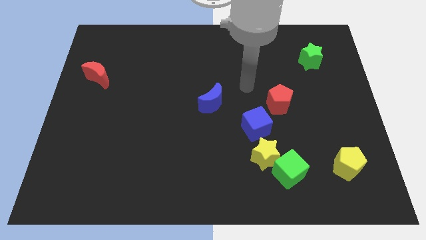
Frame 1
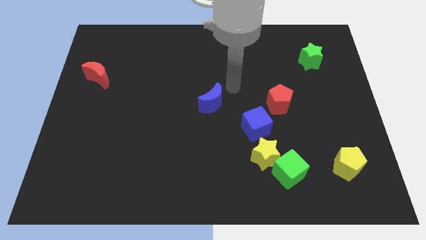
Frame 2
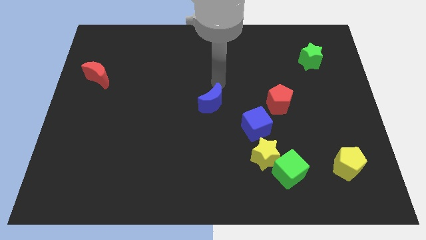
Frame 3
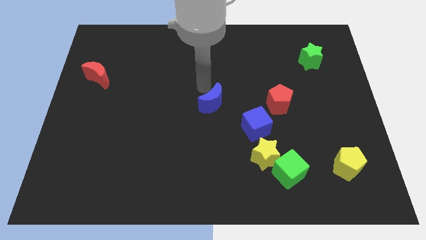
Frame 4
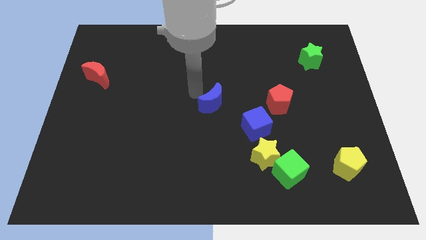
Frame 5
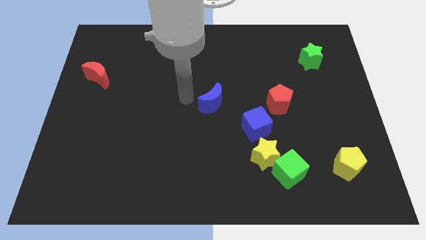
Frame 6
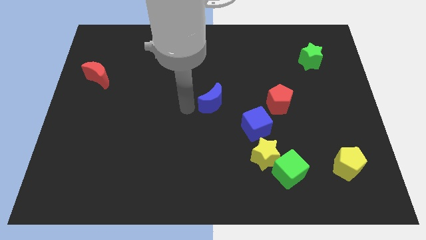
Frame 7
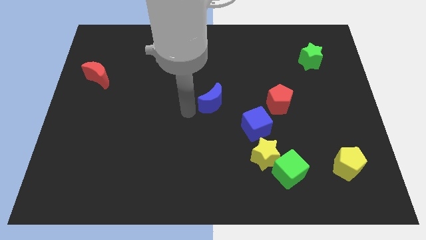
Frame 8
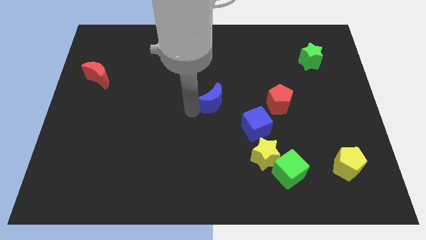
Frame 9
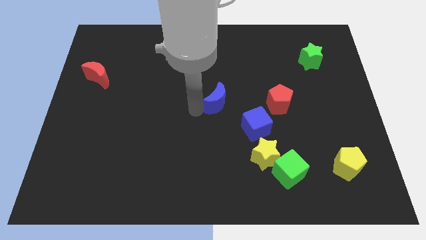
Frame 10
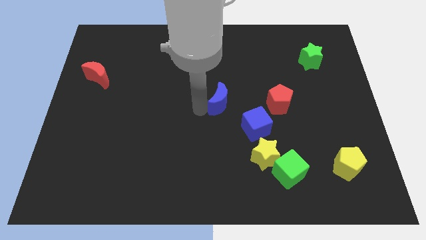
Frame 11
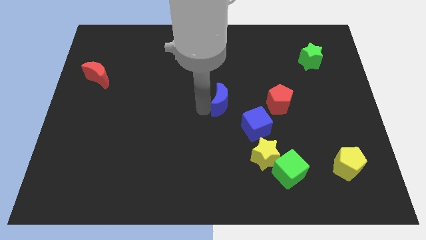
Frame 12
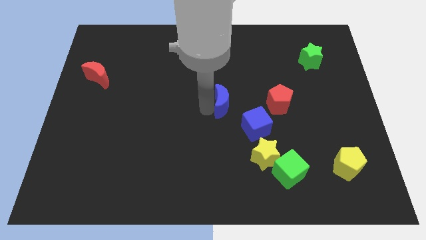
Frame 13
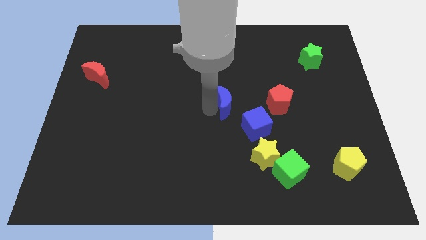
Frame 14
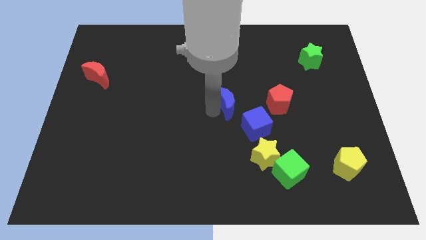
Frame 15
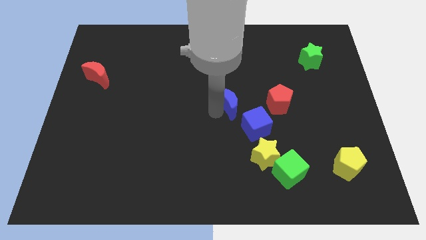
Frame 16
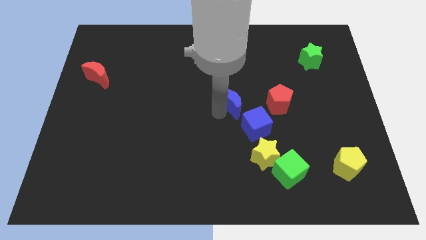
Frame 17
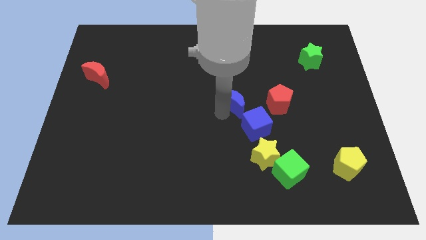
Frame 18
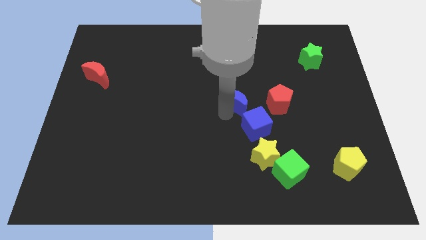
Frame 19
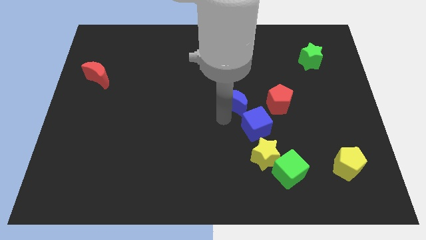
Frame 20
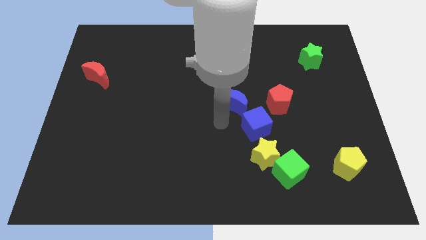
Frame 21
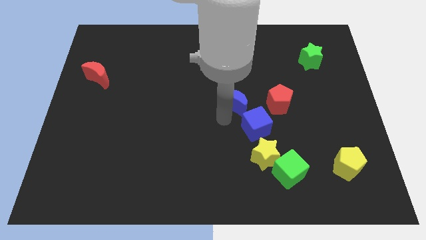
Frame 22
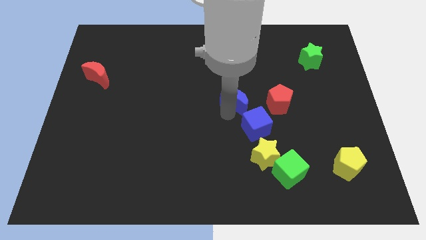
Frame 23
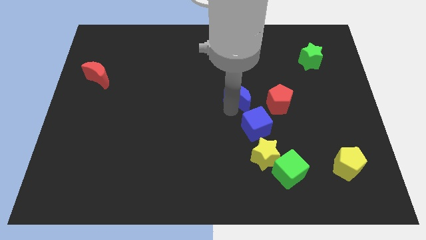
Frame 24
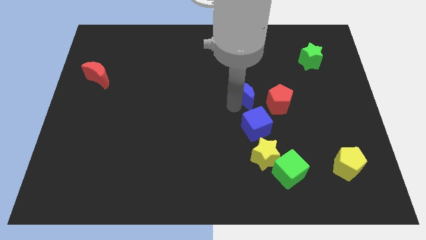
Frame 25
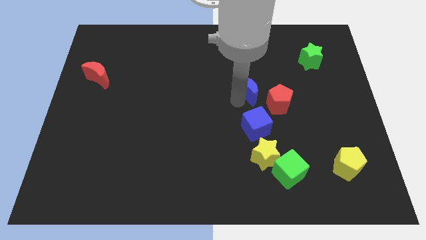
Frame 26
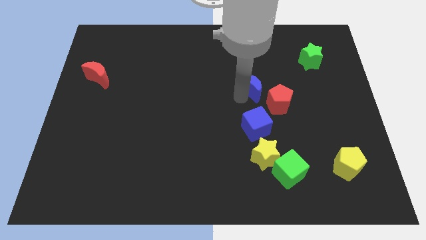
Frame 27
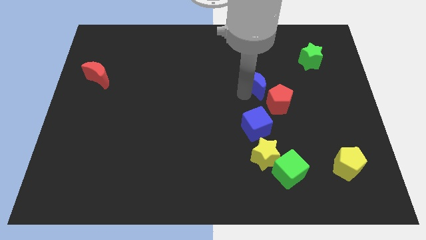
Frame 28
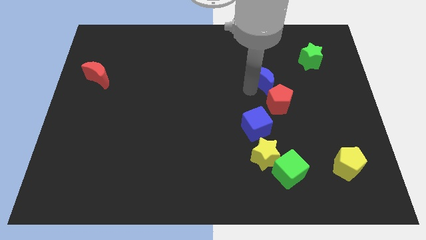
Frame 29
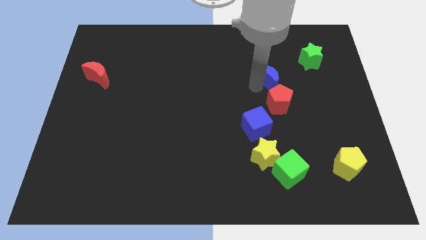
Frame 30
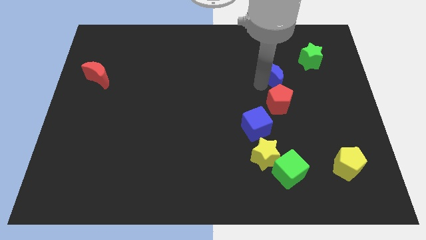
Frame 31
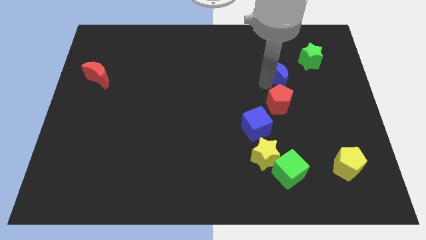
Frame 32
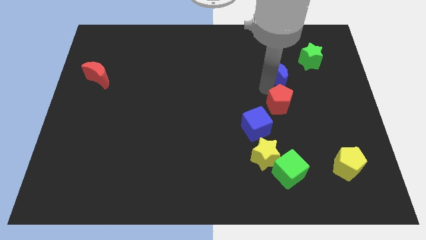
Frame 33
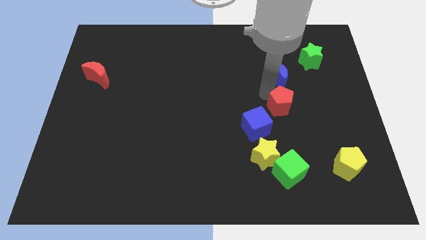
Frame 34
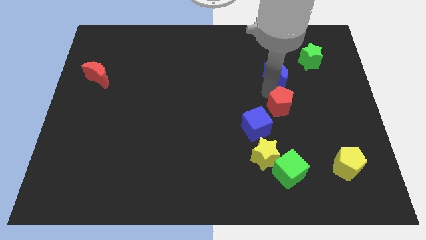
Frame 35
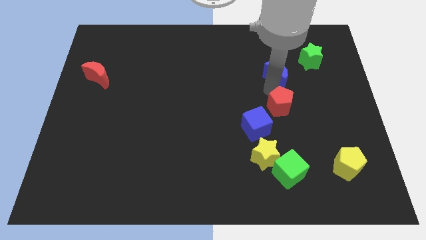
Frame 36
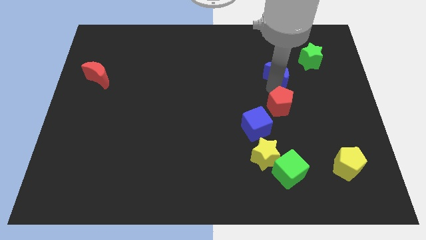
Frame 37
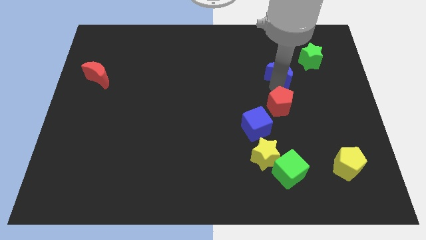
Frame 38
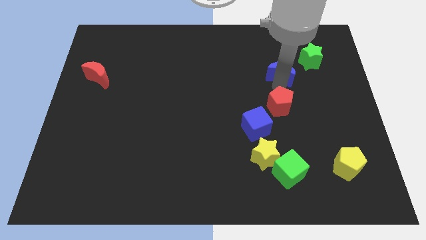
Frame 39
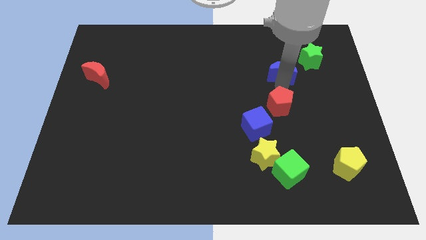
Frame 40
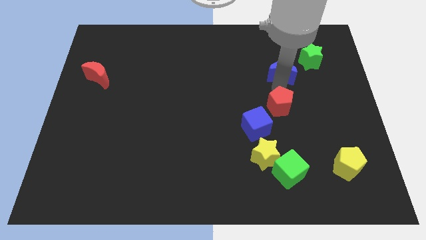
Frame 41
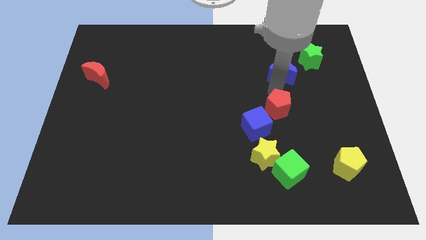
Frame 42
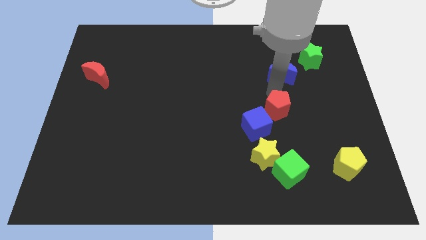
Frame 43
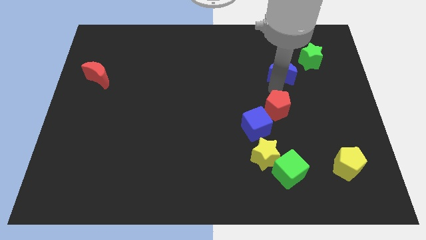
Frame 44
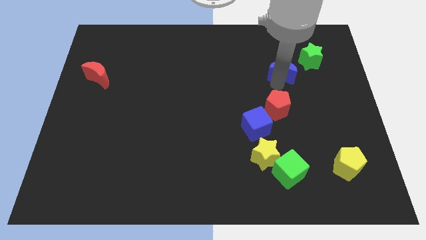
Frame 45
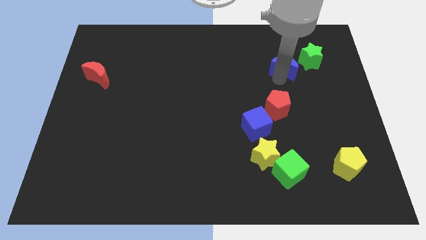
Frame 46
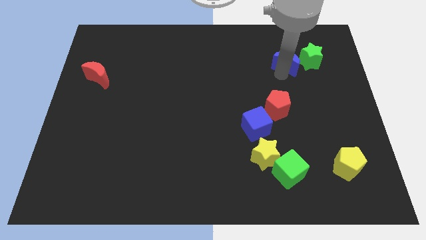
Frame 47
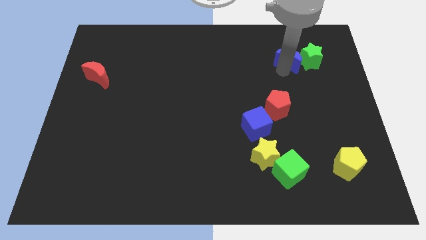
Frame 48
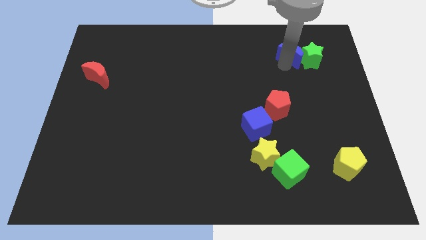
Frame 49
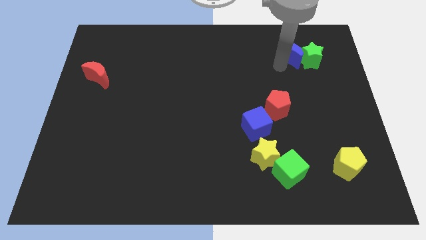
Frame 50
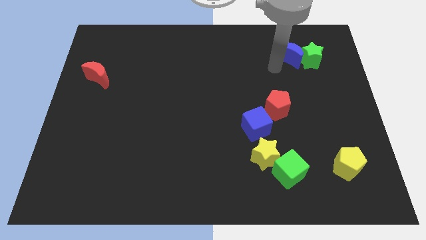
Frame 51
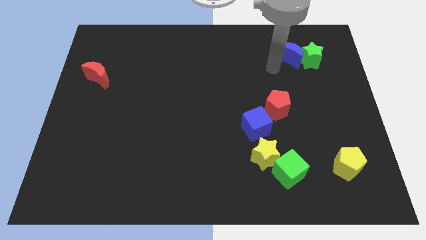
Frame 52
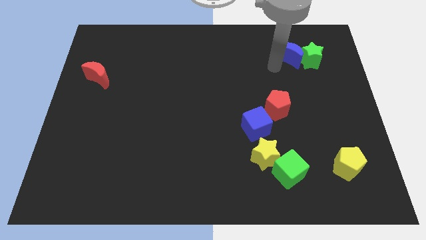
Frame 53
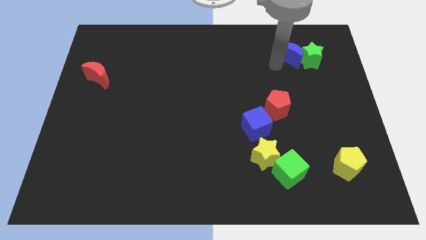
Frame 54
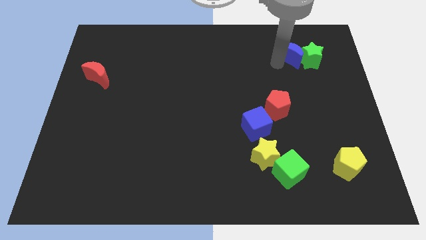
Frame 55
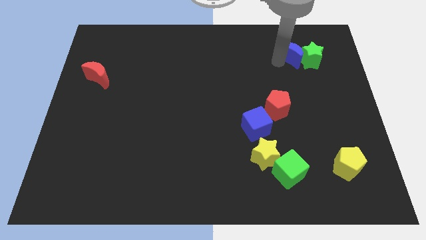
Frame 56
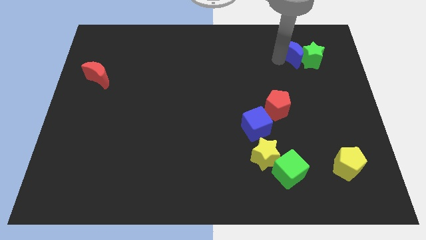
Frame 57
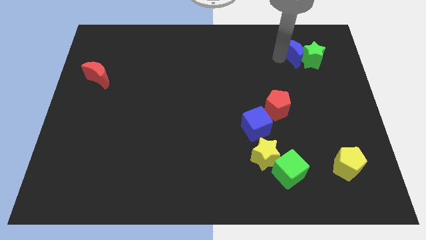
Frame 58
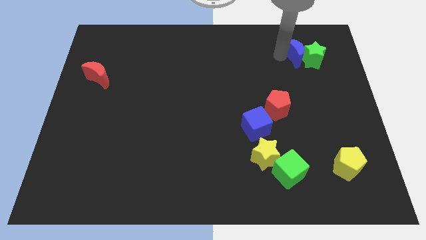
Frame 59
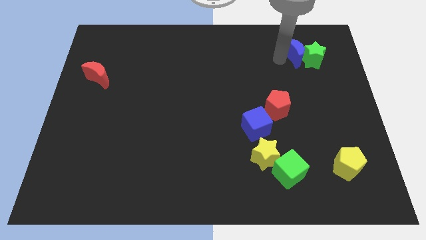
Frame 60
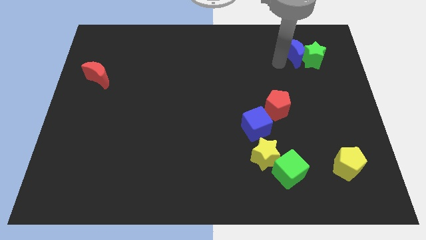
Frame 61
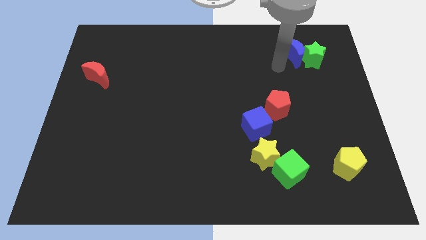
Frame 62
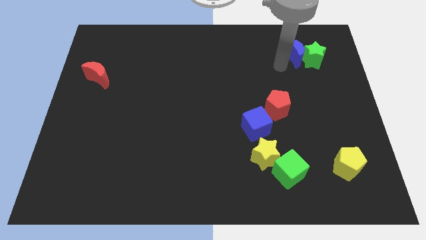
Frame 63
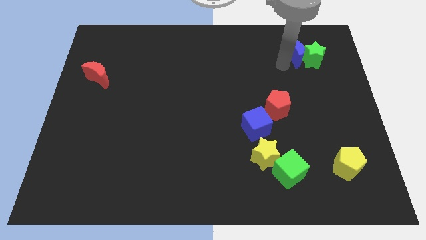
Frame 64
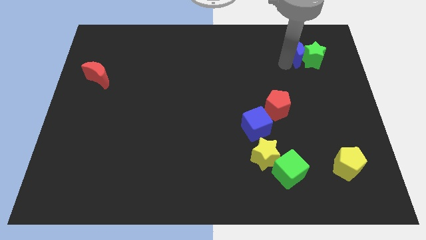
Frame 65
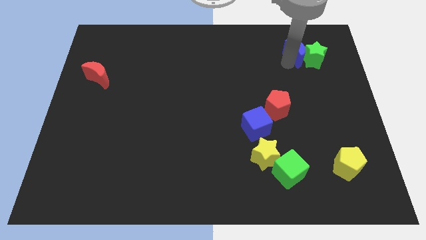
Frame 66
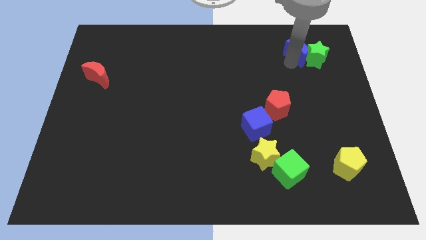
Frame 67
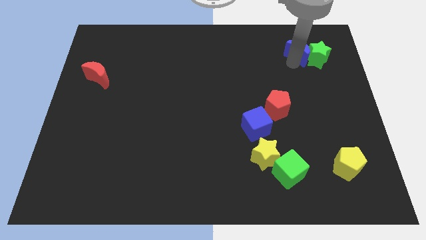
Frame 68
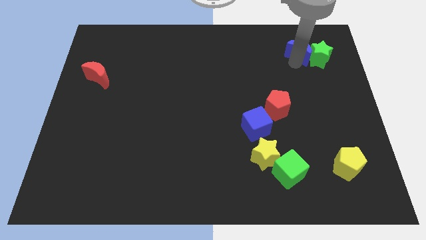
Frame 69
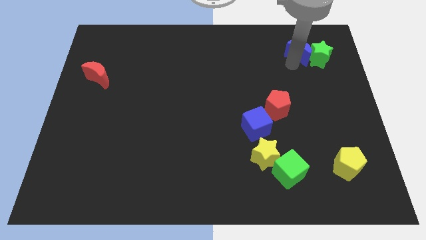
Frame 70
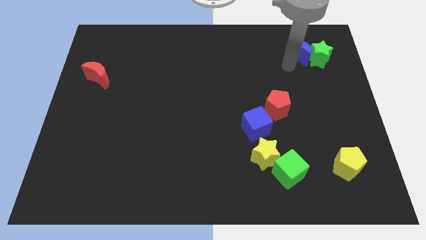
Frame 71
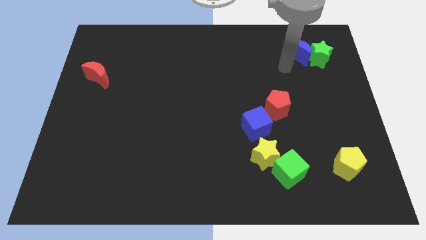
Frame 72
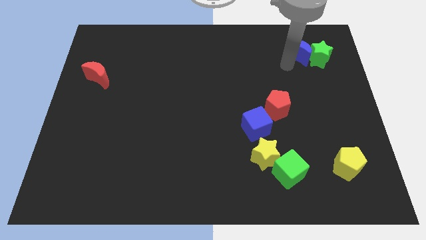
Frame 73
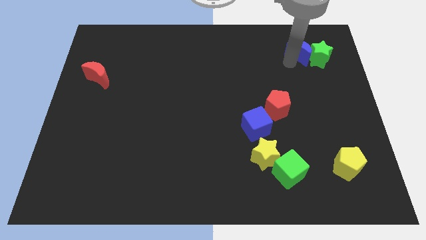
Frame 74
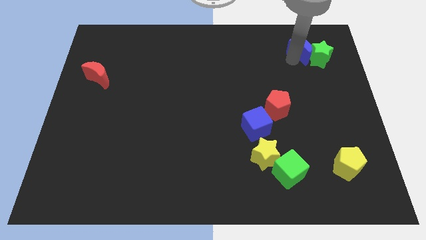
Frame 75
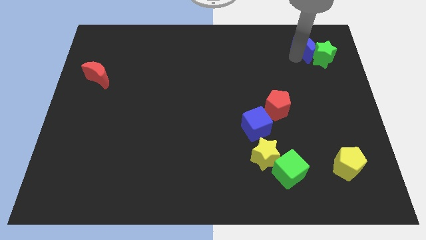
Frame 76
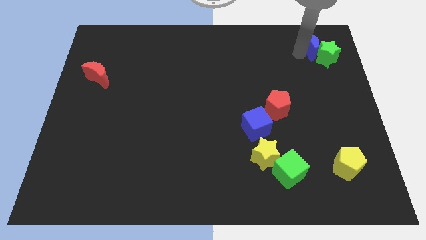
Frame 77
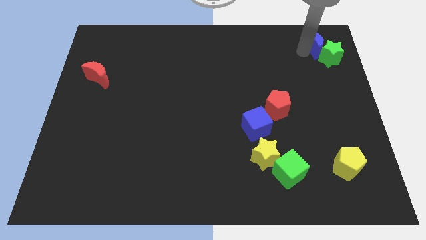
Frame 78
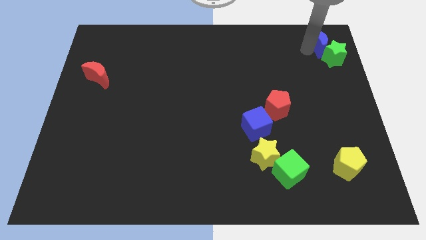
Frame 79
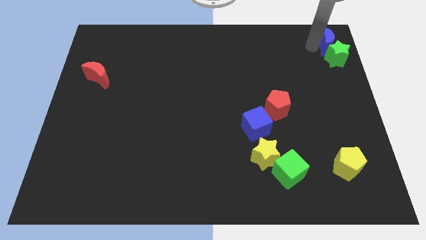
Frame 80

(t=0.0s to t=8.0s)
push the blue moon to the top right of the board
